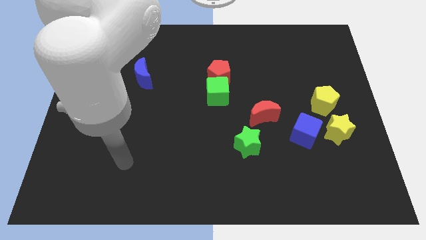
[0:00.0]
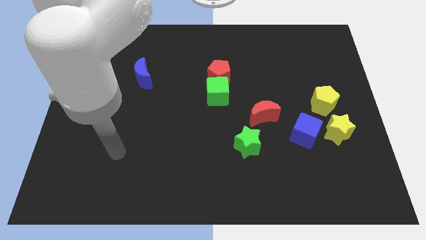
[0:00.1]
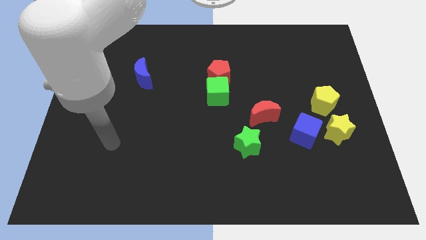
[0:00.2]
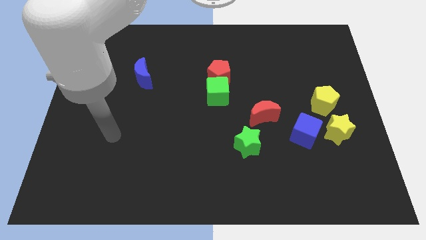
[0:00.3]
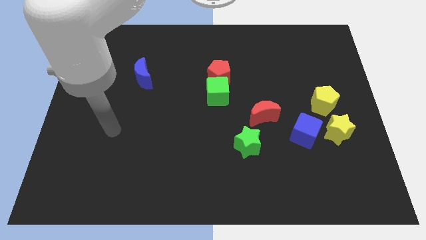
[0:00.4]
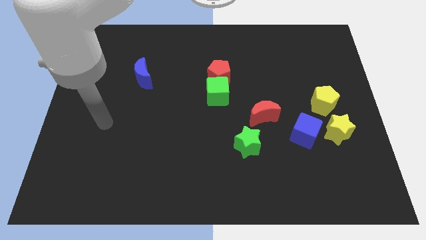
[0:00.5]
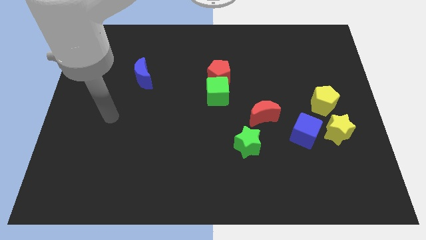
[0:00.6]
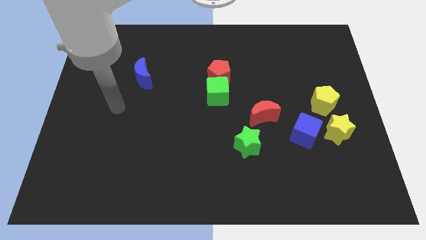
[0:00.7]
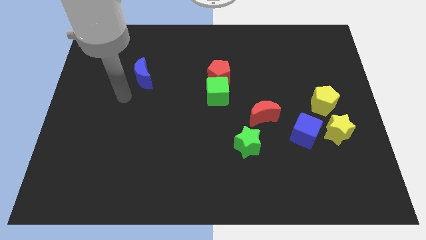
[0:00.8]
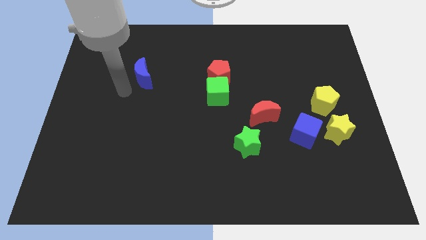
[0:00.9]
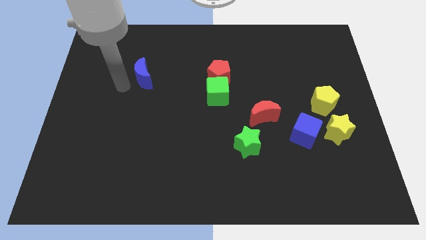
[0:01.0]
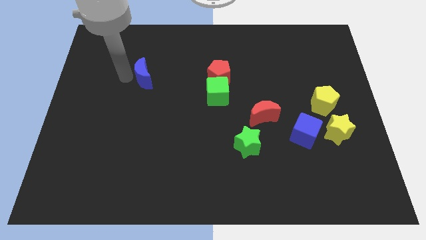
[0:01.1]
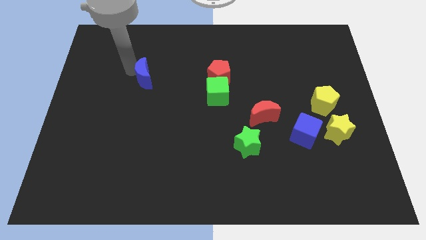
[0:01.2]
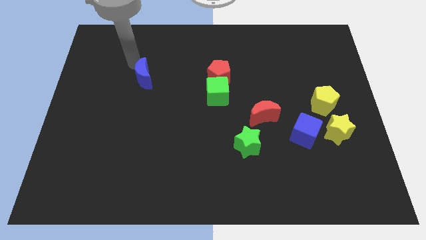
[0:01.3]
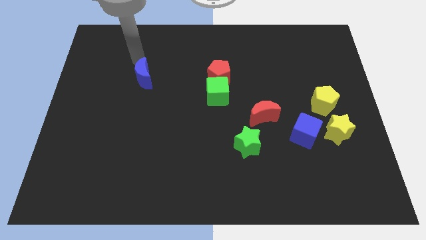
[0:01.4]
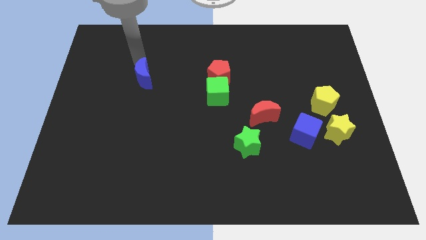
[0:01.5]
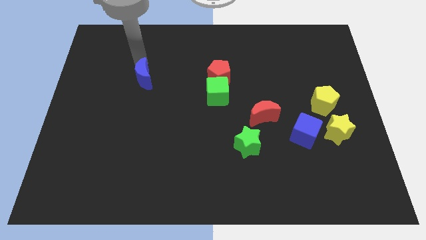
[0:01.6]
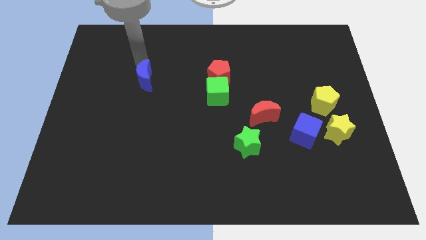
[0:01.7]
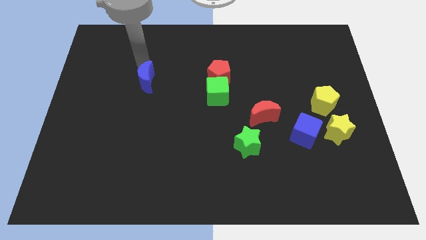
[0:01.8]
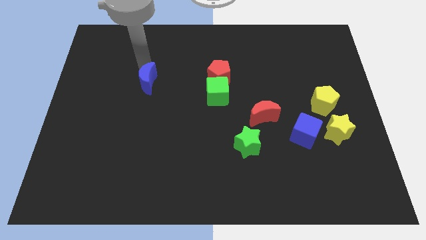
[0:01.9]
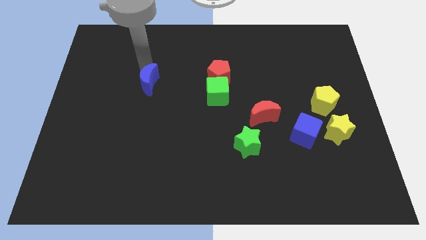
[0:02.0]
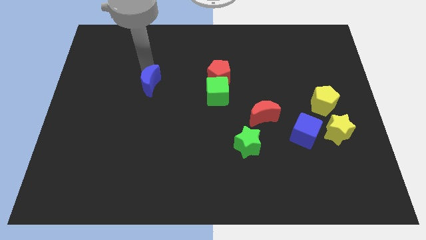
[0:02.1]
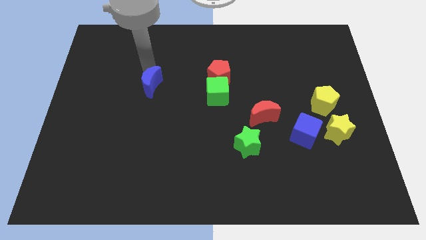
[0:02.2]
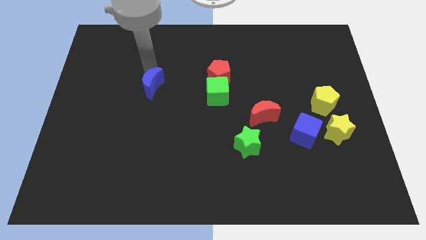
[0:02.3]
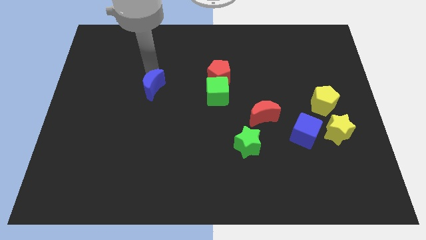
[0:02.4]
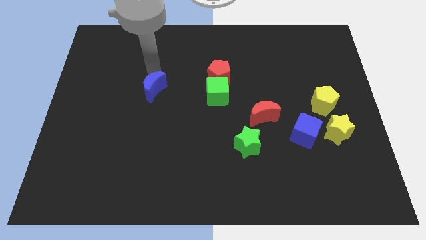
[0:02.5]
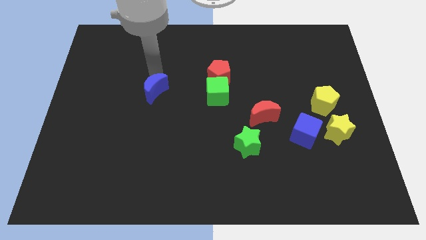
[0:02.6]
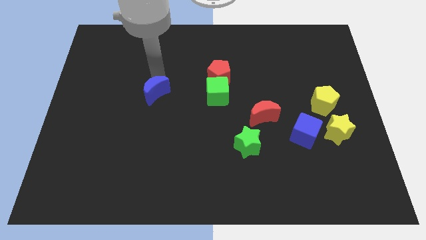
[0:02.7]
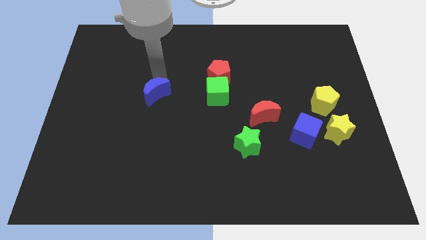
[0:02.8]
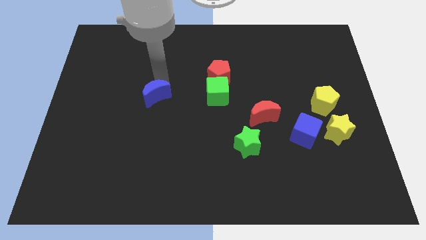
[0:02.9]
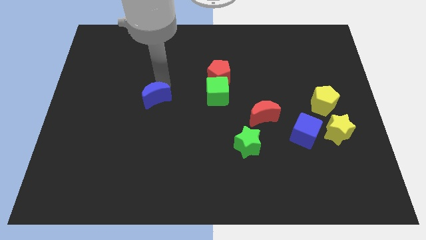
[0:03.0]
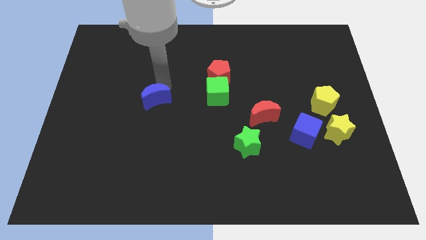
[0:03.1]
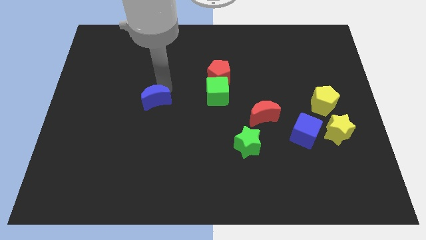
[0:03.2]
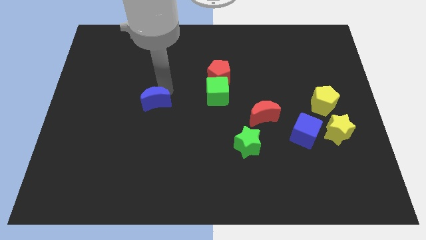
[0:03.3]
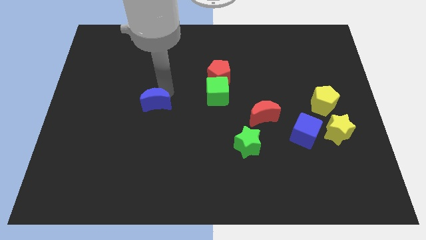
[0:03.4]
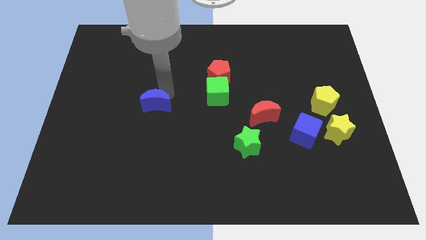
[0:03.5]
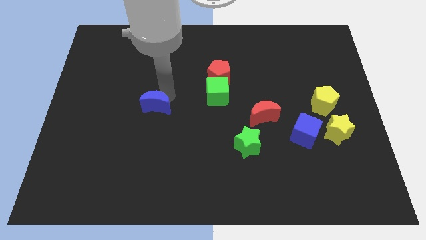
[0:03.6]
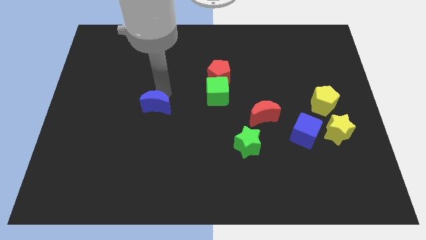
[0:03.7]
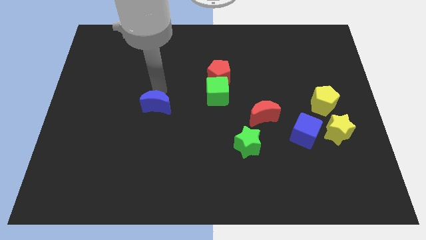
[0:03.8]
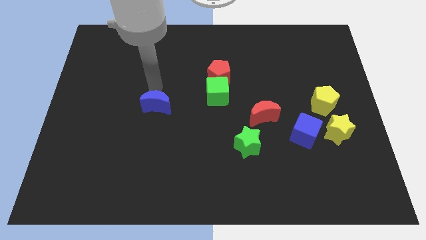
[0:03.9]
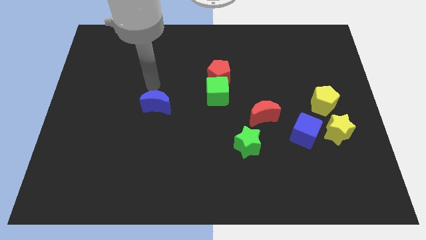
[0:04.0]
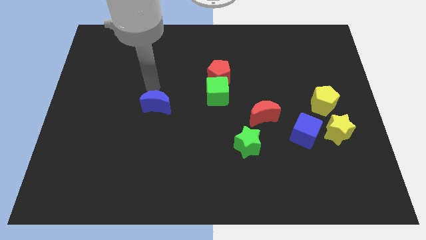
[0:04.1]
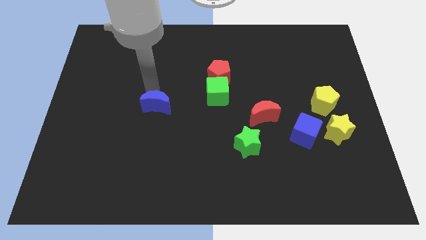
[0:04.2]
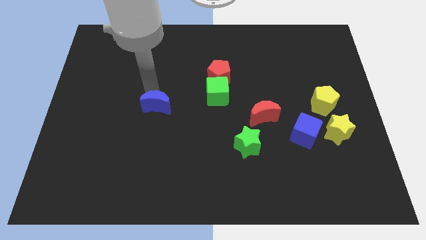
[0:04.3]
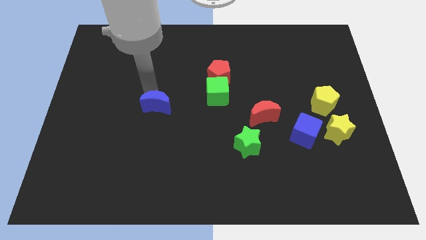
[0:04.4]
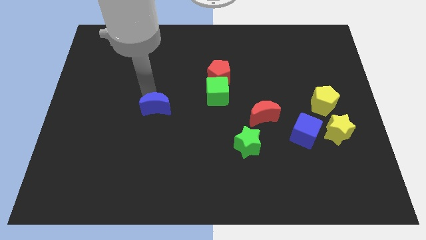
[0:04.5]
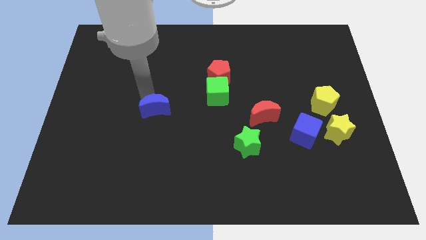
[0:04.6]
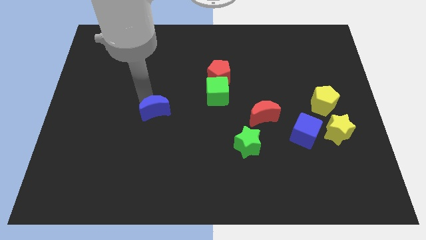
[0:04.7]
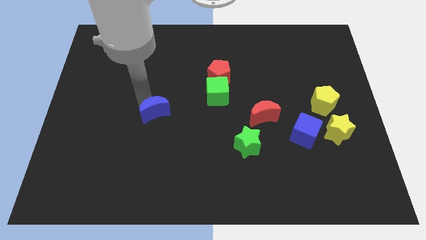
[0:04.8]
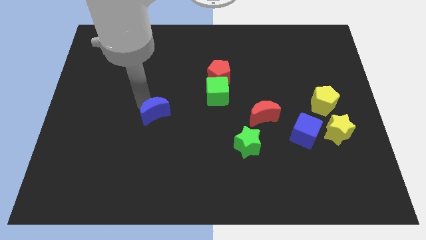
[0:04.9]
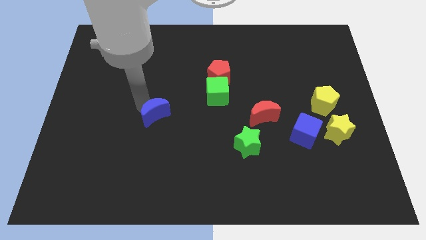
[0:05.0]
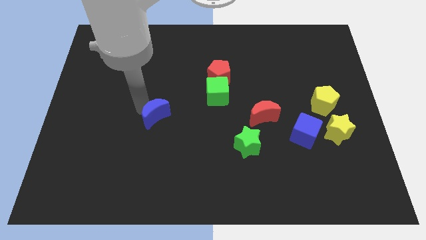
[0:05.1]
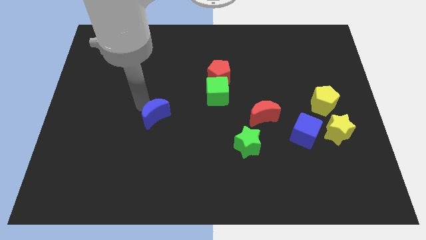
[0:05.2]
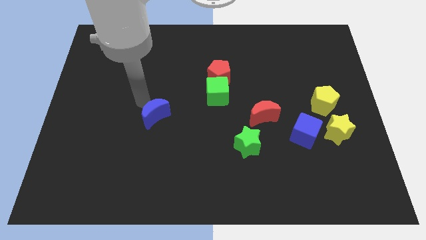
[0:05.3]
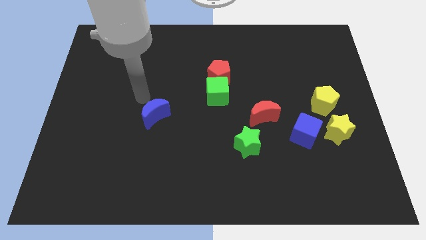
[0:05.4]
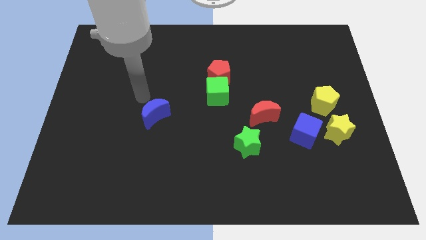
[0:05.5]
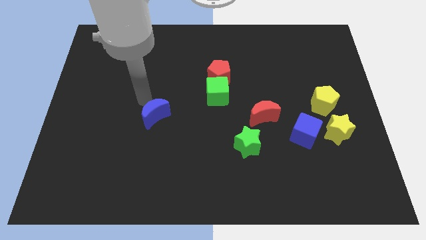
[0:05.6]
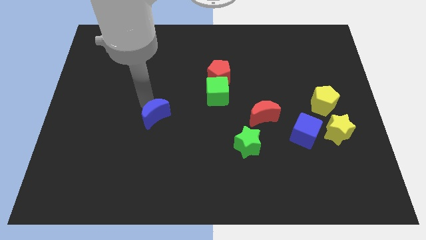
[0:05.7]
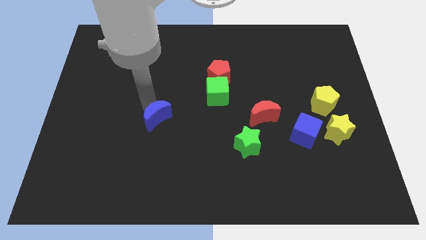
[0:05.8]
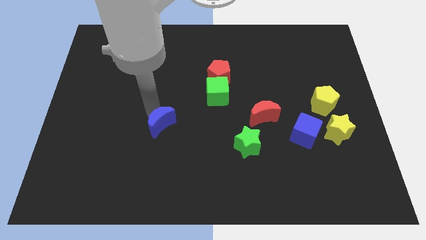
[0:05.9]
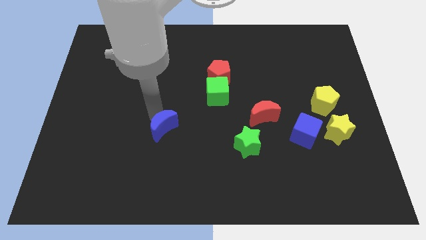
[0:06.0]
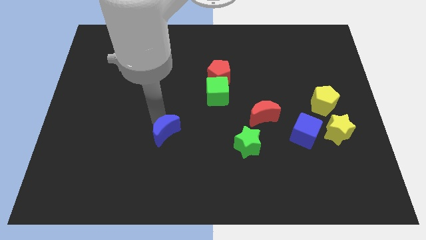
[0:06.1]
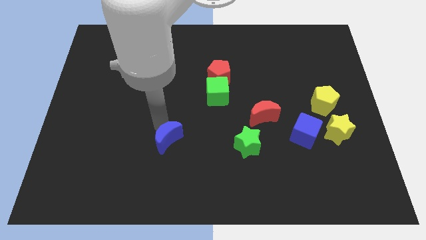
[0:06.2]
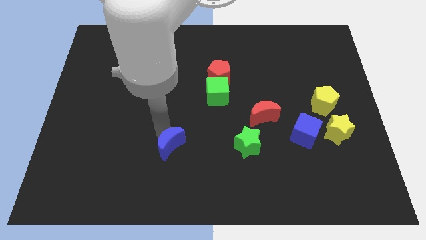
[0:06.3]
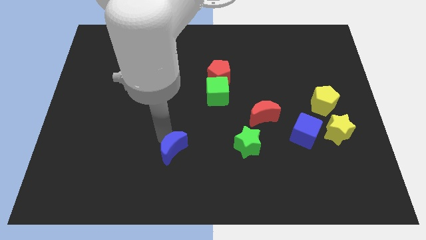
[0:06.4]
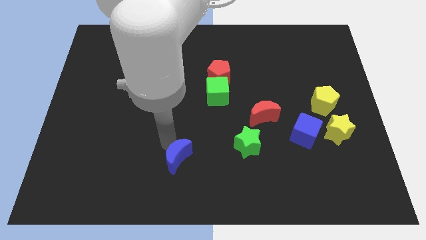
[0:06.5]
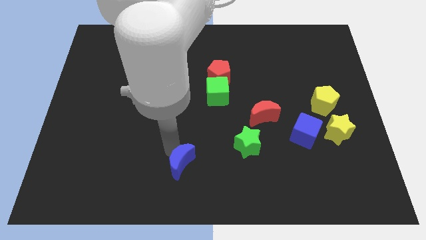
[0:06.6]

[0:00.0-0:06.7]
slide the blue moon to the bottom side

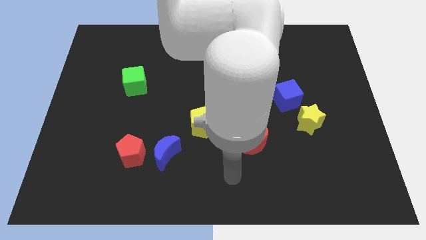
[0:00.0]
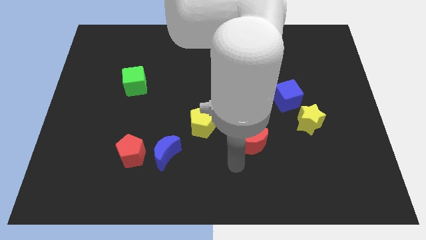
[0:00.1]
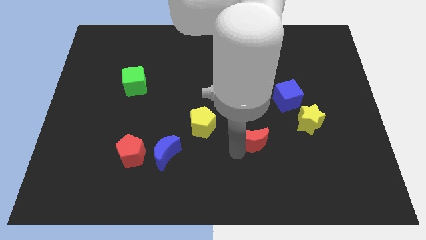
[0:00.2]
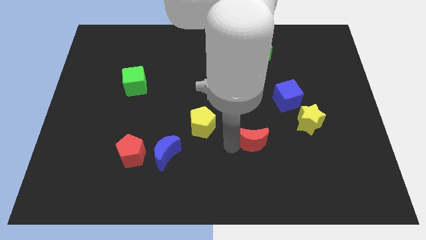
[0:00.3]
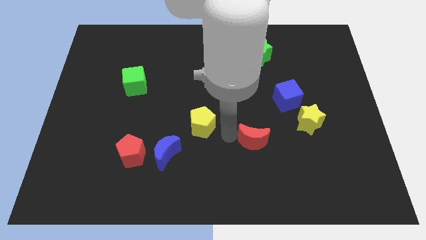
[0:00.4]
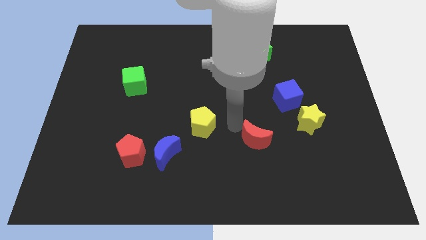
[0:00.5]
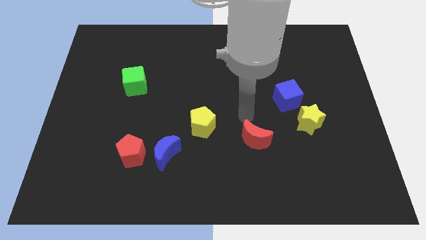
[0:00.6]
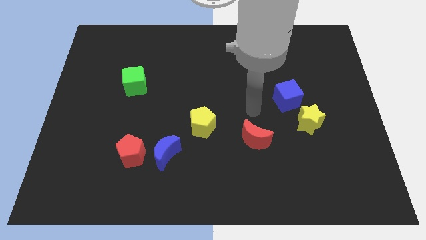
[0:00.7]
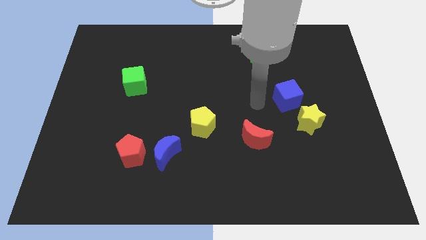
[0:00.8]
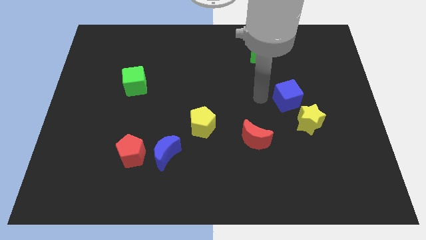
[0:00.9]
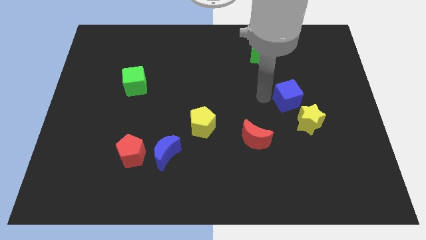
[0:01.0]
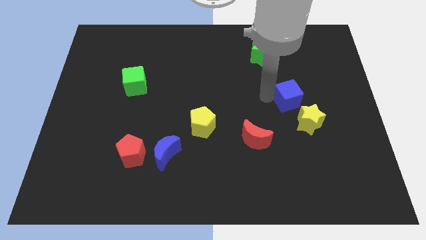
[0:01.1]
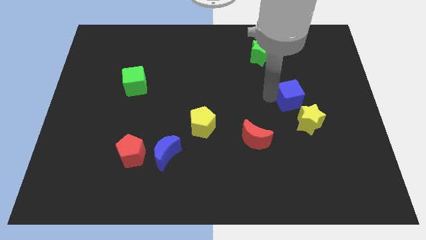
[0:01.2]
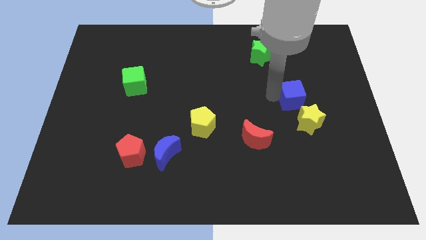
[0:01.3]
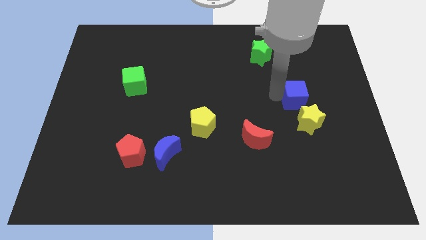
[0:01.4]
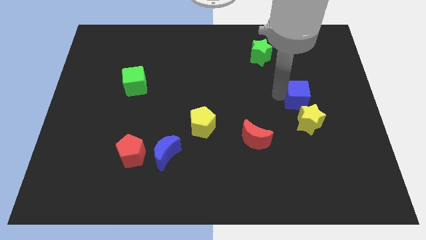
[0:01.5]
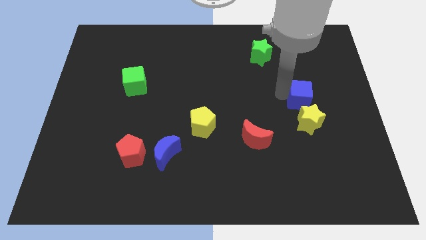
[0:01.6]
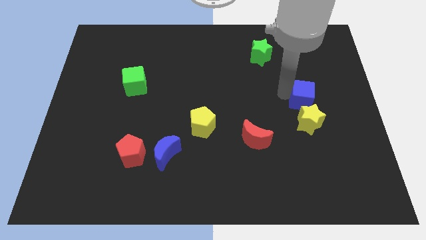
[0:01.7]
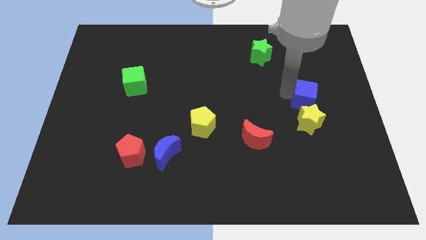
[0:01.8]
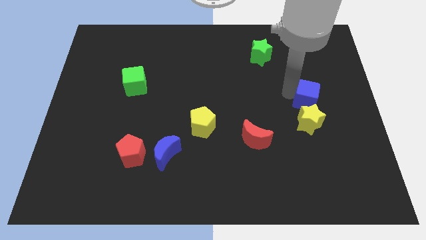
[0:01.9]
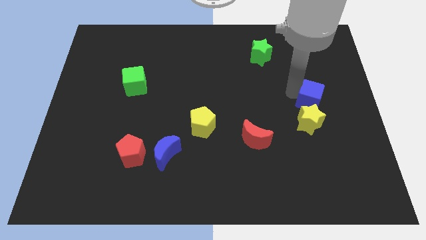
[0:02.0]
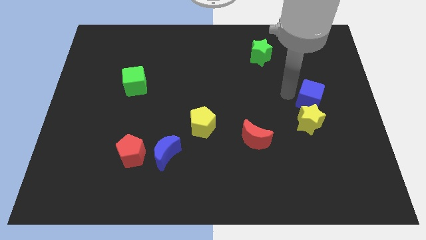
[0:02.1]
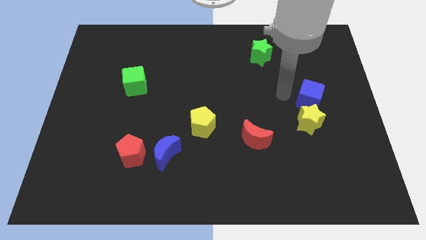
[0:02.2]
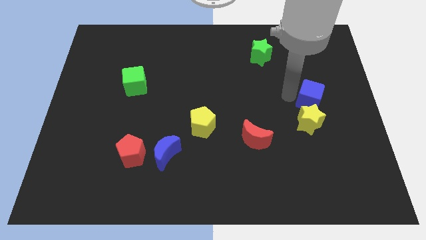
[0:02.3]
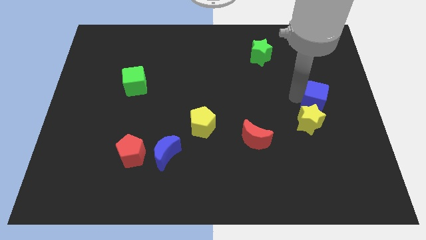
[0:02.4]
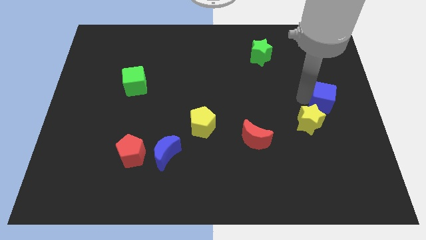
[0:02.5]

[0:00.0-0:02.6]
push the blue cube to the right side of the board
